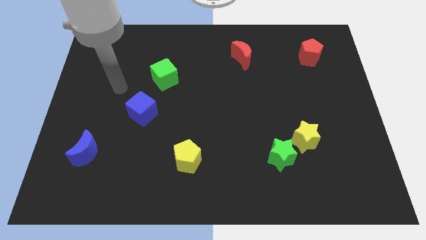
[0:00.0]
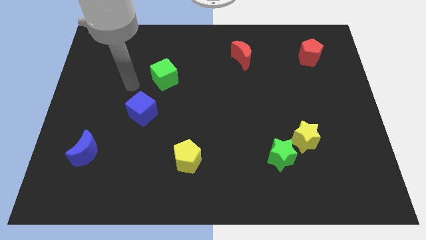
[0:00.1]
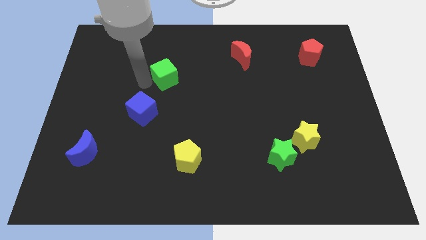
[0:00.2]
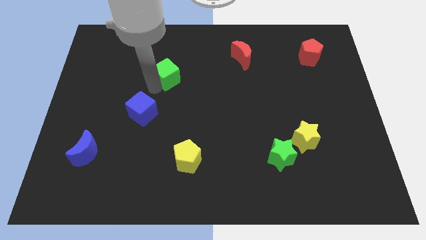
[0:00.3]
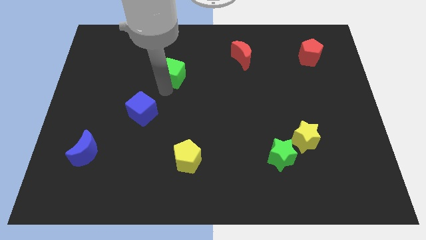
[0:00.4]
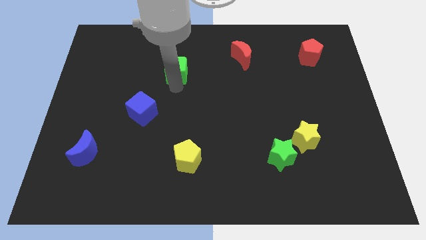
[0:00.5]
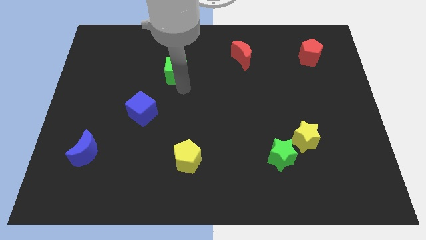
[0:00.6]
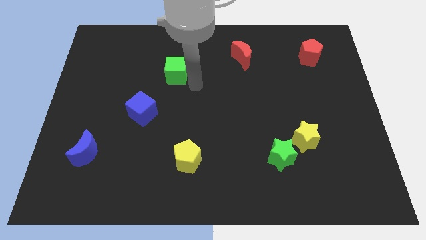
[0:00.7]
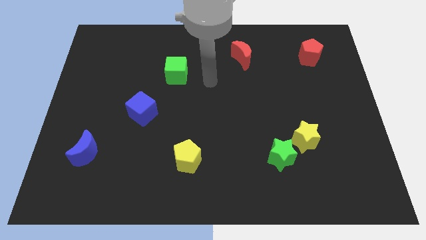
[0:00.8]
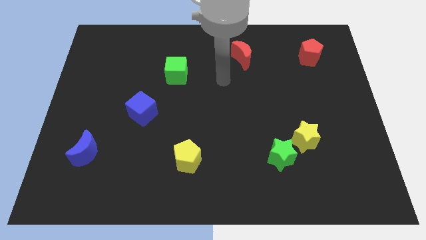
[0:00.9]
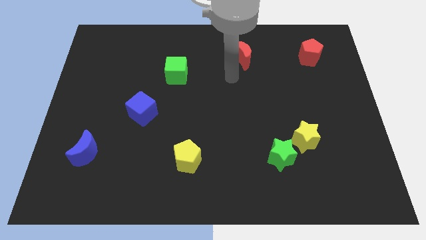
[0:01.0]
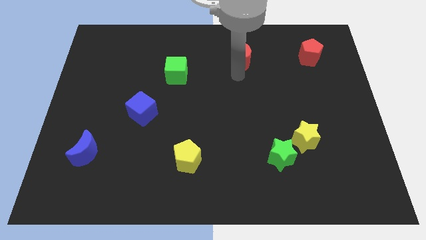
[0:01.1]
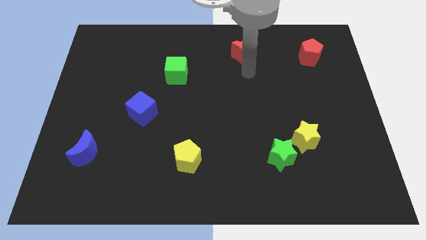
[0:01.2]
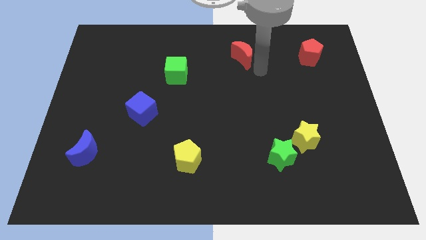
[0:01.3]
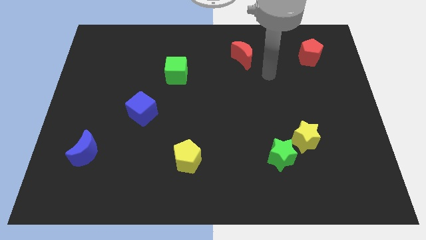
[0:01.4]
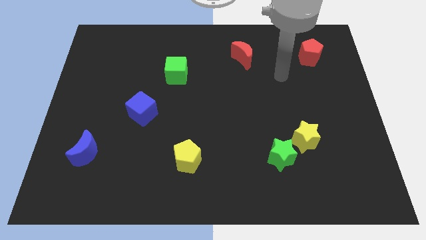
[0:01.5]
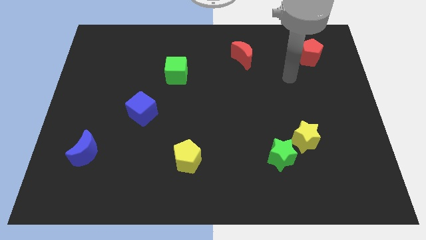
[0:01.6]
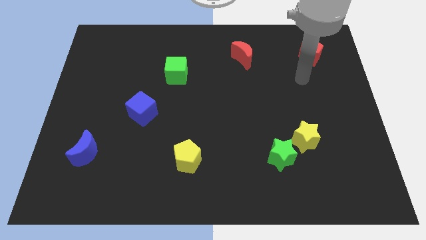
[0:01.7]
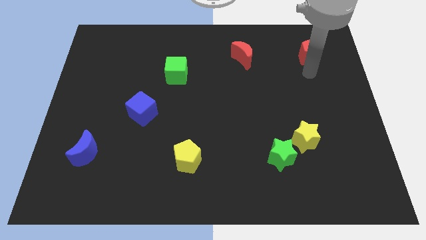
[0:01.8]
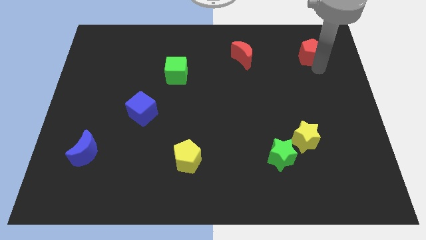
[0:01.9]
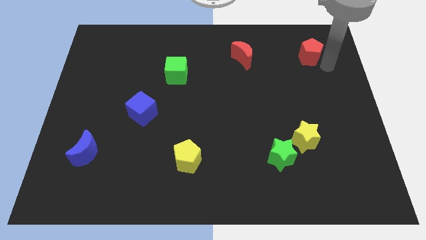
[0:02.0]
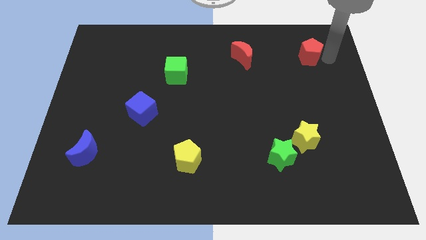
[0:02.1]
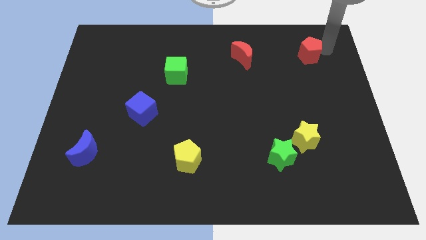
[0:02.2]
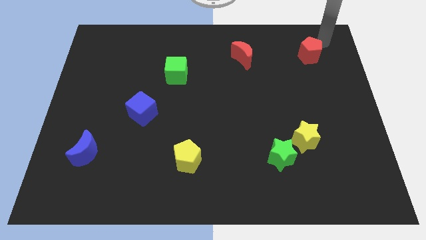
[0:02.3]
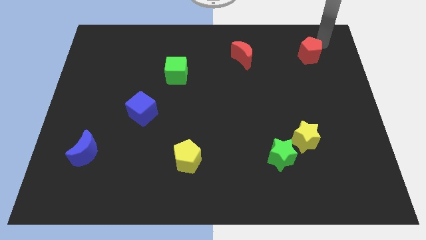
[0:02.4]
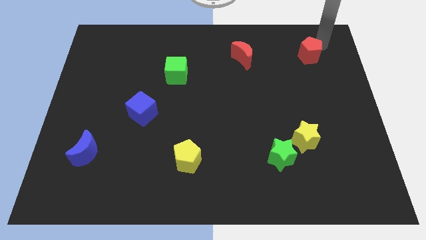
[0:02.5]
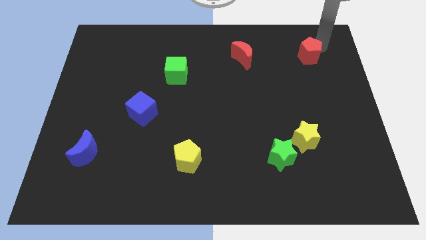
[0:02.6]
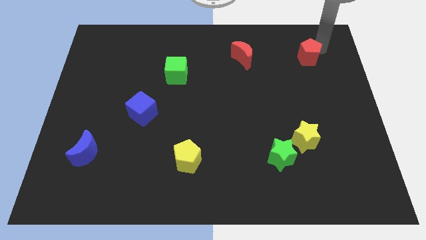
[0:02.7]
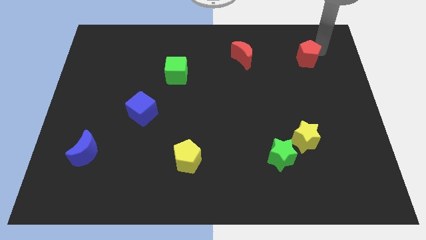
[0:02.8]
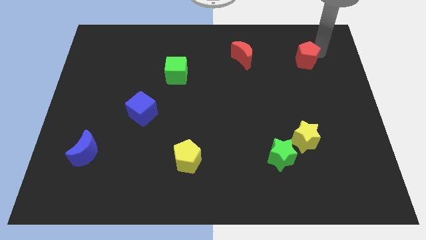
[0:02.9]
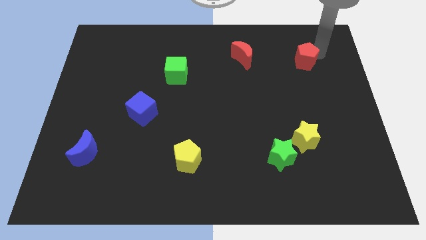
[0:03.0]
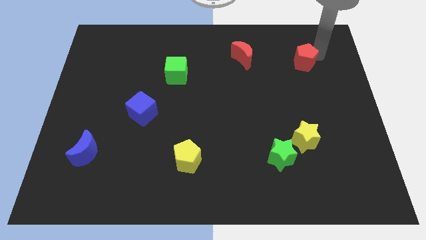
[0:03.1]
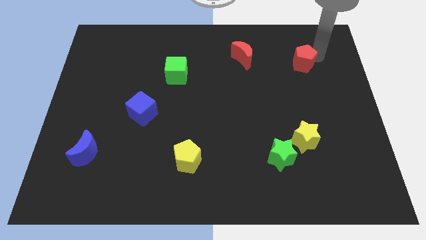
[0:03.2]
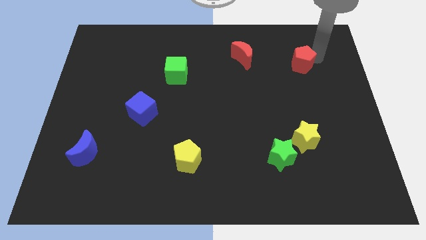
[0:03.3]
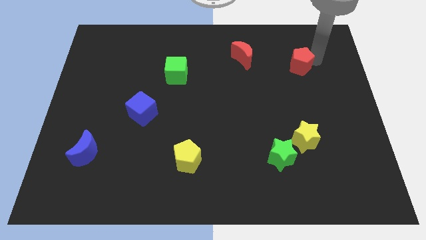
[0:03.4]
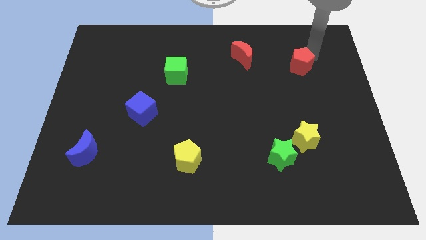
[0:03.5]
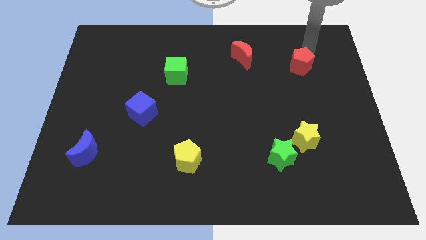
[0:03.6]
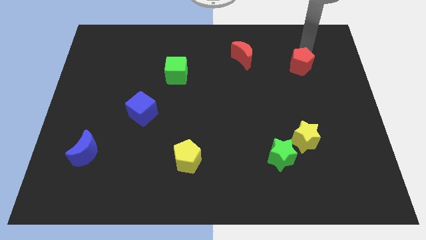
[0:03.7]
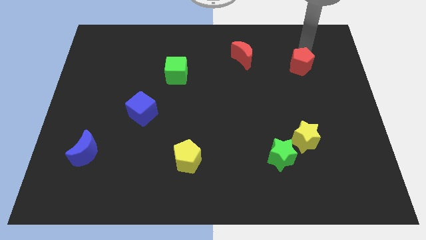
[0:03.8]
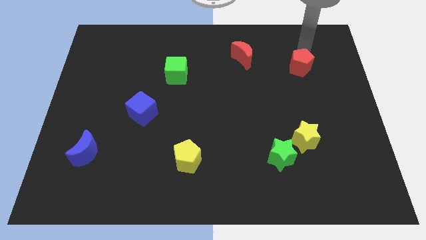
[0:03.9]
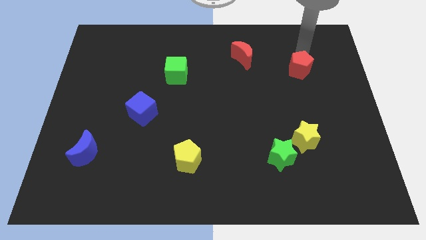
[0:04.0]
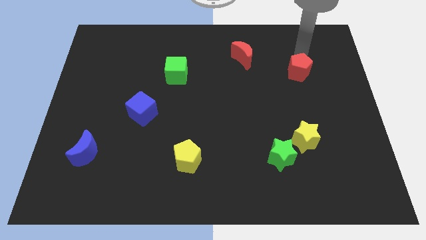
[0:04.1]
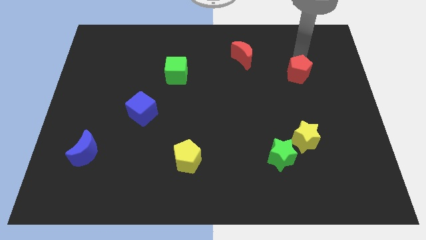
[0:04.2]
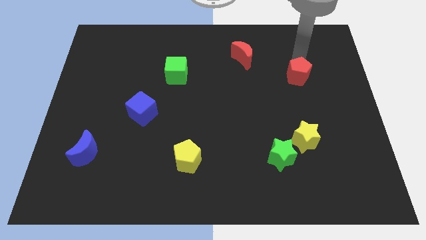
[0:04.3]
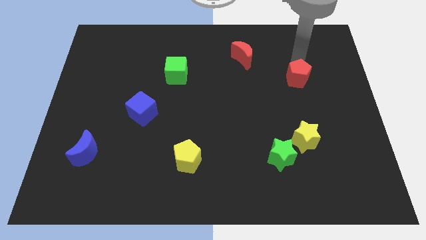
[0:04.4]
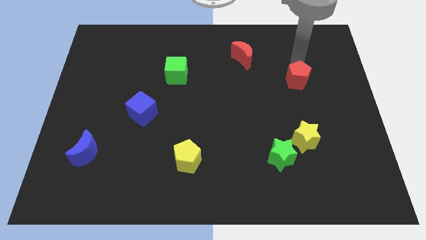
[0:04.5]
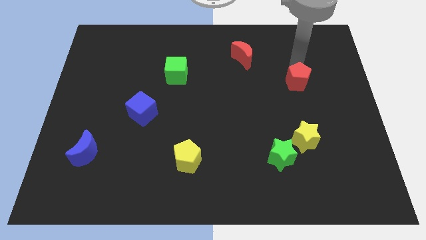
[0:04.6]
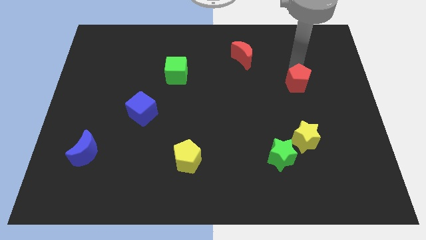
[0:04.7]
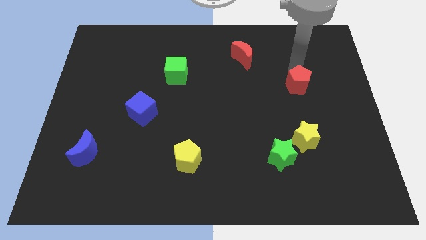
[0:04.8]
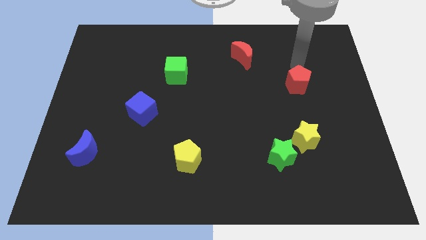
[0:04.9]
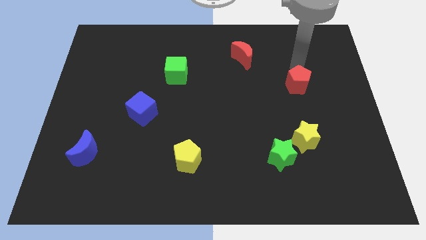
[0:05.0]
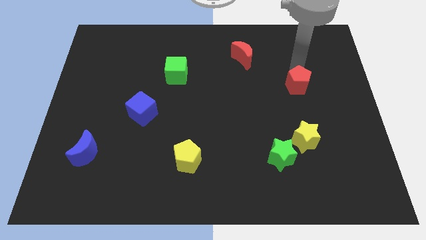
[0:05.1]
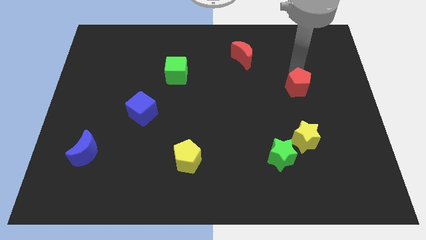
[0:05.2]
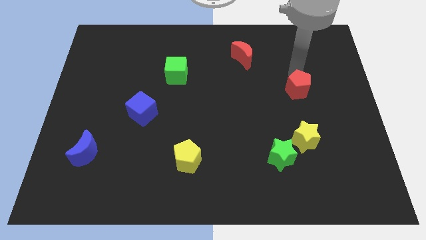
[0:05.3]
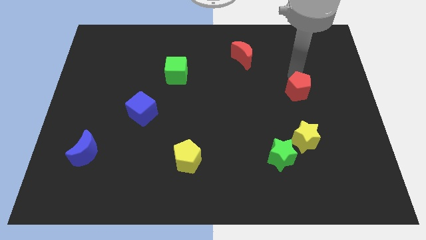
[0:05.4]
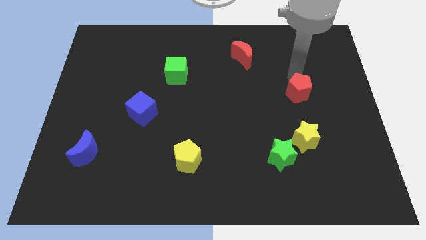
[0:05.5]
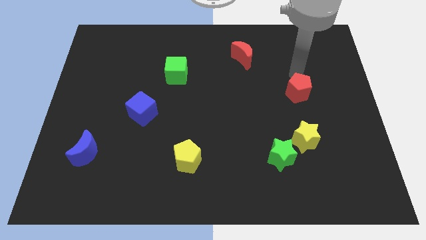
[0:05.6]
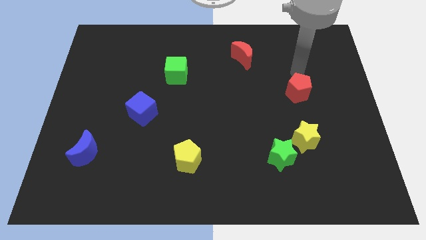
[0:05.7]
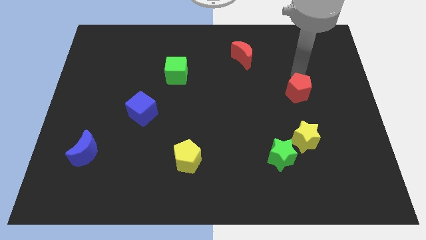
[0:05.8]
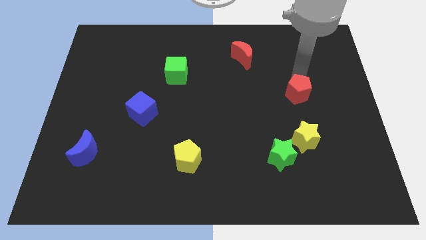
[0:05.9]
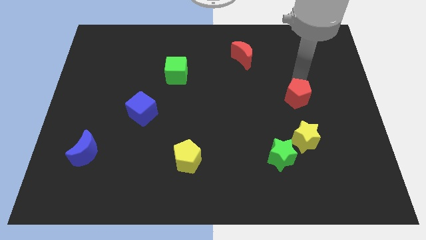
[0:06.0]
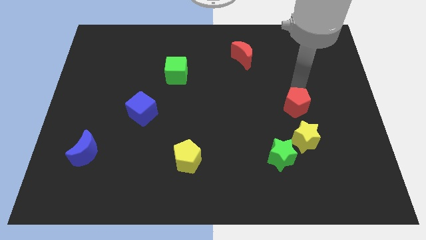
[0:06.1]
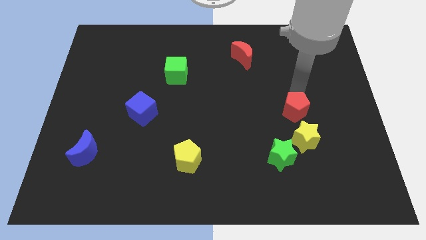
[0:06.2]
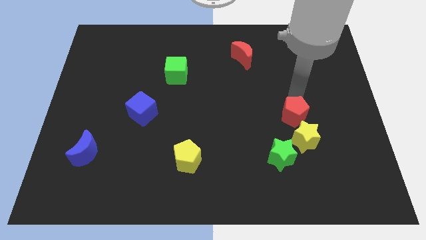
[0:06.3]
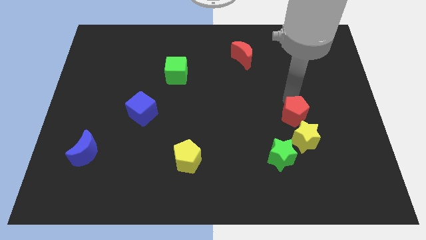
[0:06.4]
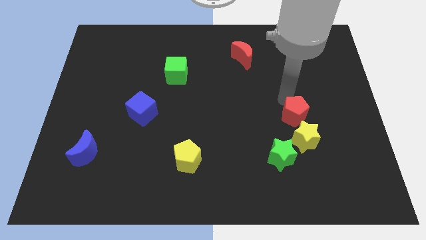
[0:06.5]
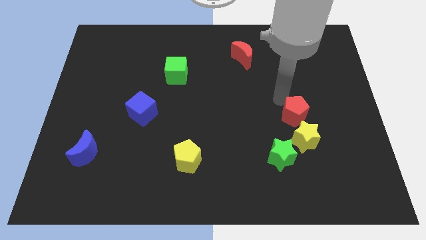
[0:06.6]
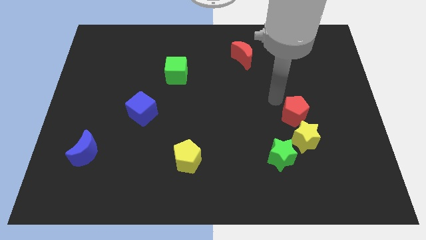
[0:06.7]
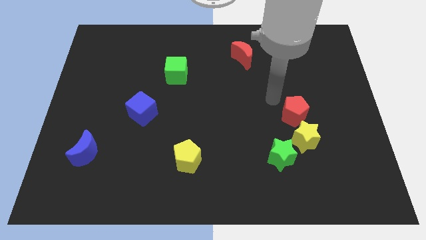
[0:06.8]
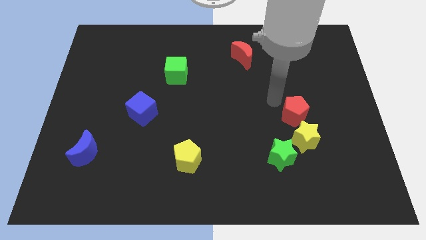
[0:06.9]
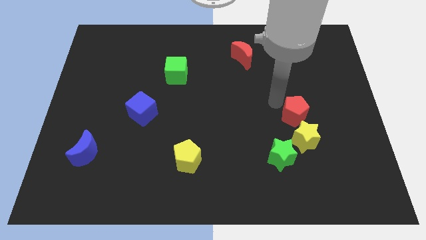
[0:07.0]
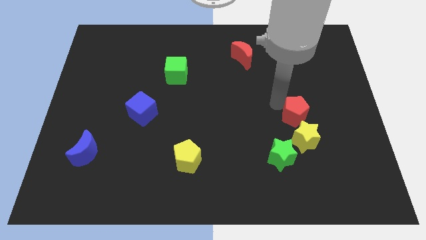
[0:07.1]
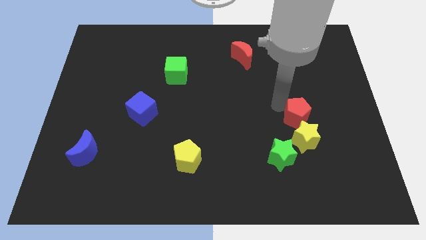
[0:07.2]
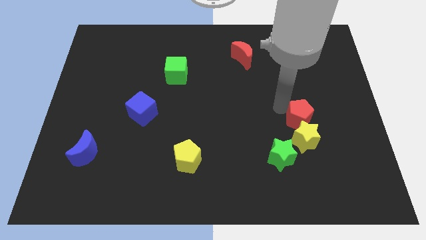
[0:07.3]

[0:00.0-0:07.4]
move the red pentagon next to the yellow star
